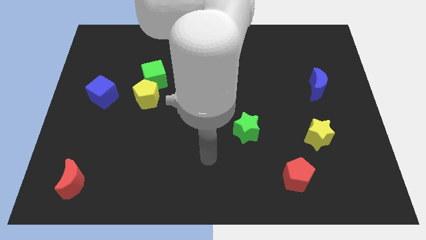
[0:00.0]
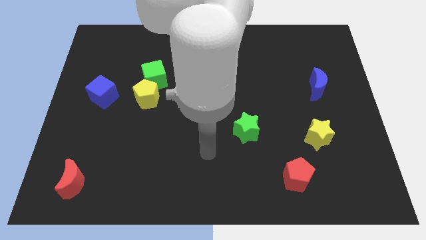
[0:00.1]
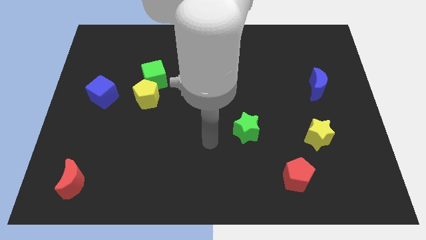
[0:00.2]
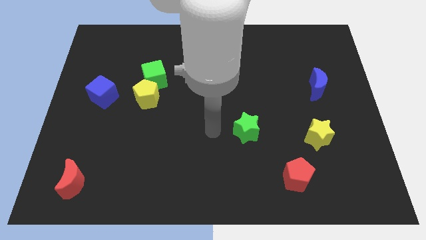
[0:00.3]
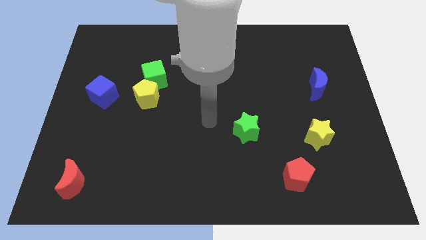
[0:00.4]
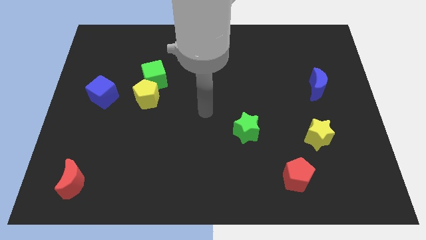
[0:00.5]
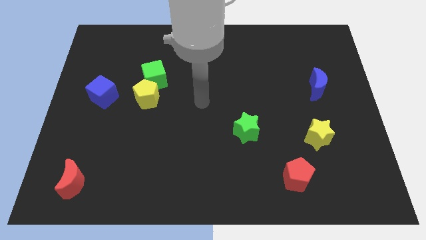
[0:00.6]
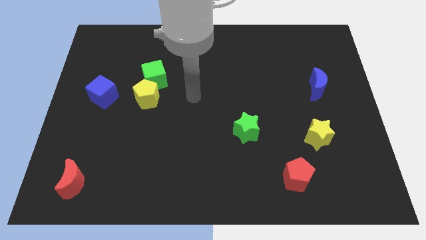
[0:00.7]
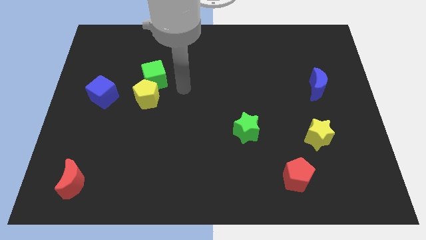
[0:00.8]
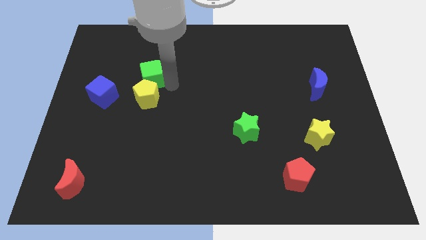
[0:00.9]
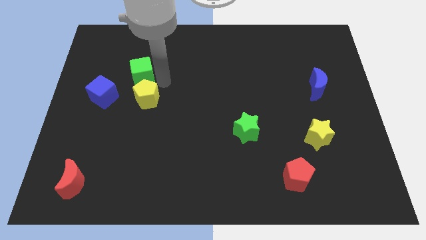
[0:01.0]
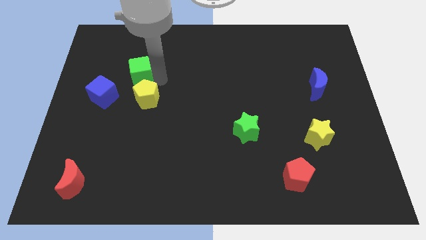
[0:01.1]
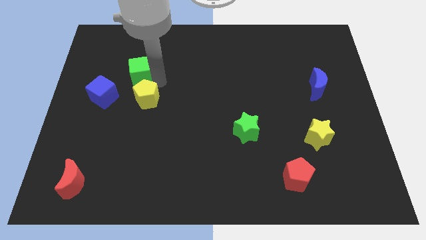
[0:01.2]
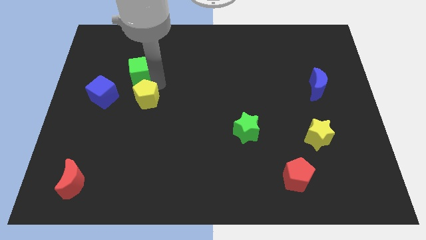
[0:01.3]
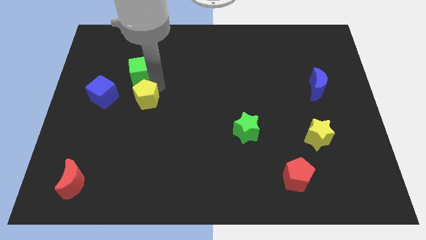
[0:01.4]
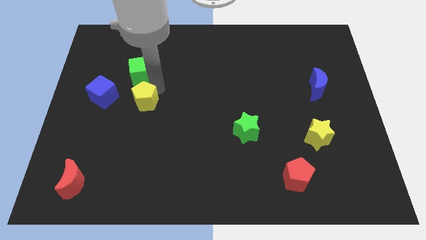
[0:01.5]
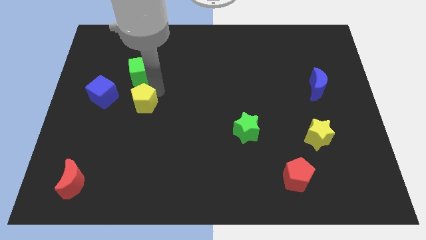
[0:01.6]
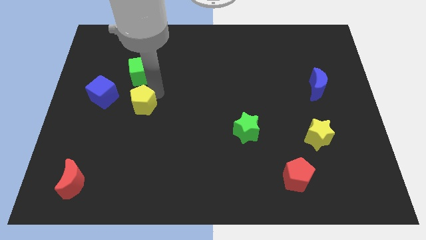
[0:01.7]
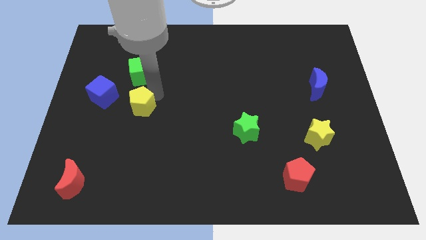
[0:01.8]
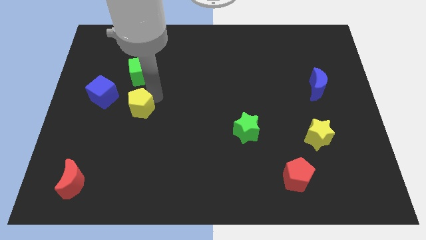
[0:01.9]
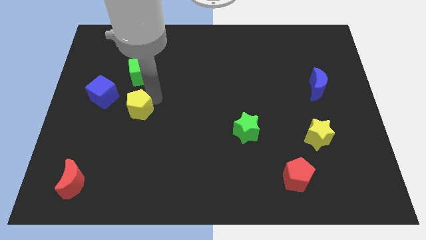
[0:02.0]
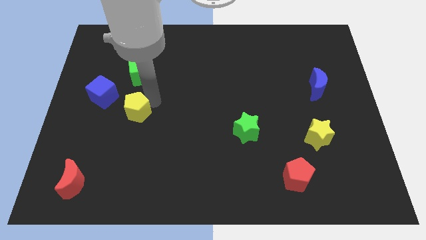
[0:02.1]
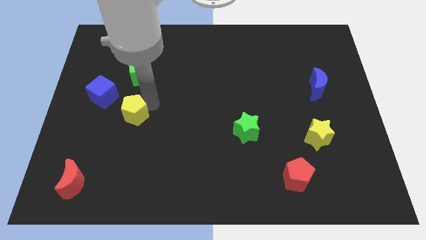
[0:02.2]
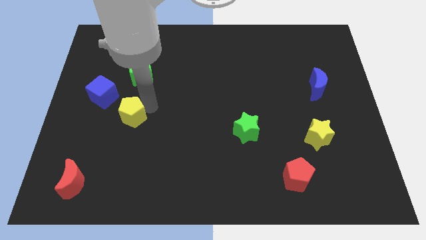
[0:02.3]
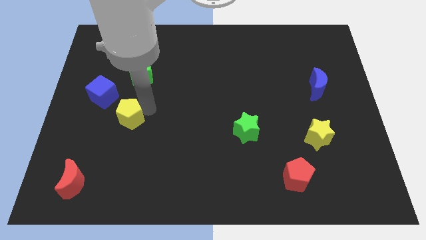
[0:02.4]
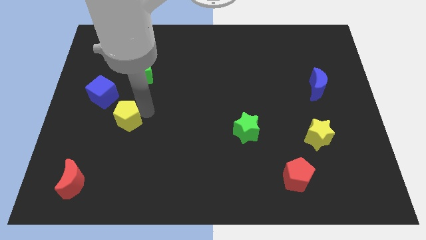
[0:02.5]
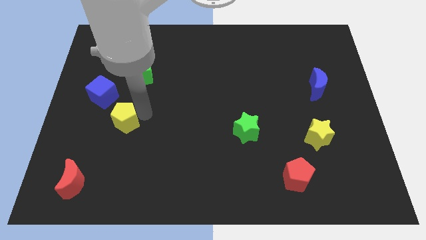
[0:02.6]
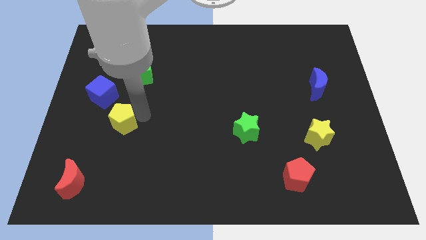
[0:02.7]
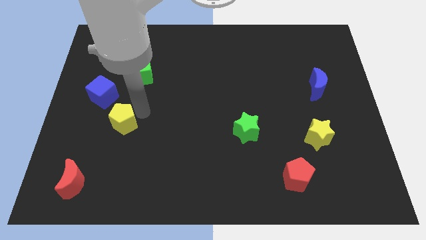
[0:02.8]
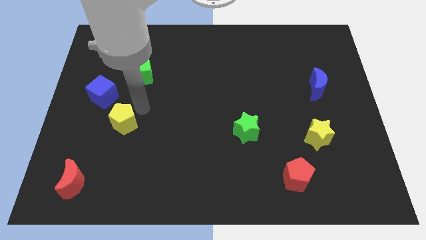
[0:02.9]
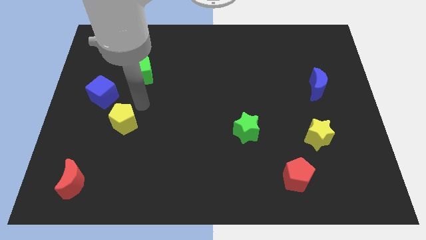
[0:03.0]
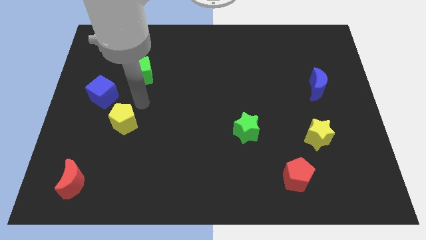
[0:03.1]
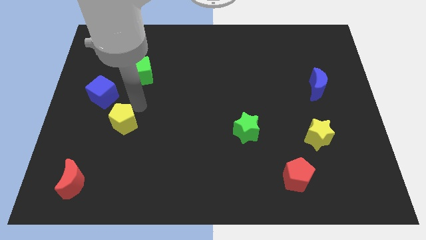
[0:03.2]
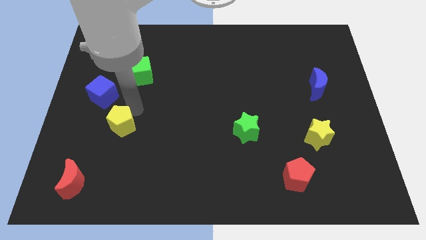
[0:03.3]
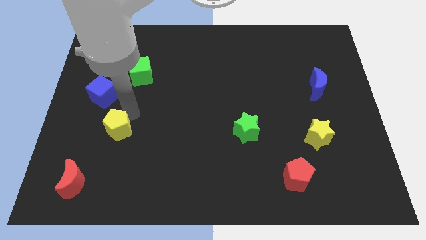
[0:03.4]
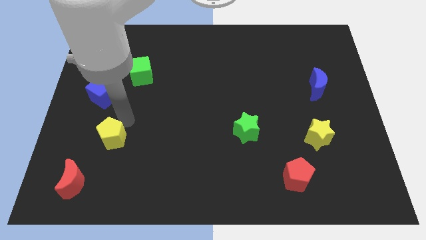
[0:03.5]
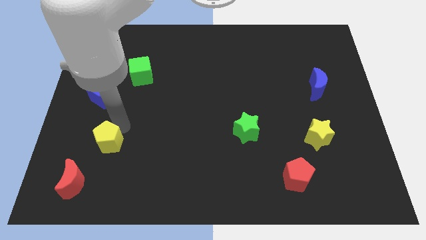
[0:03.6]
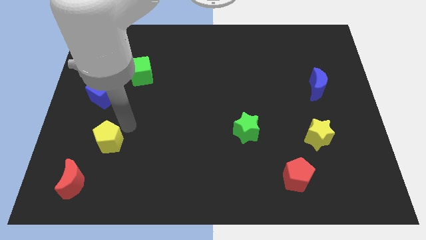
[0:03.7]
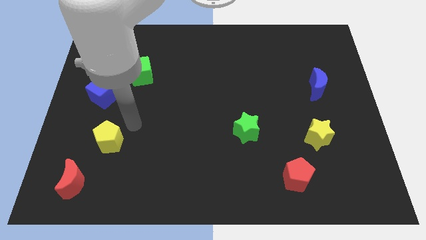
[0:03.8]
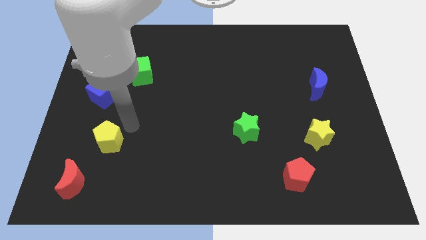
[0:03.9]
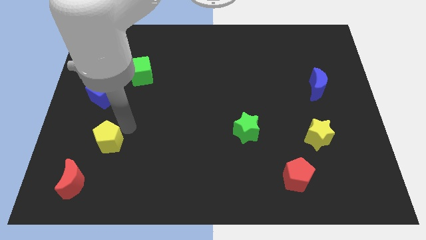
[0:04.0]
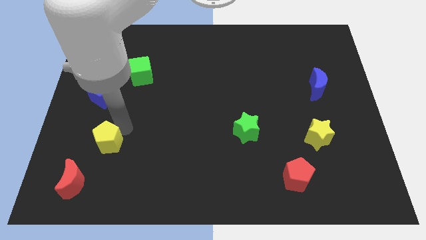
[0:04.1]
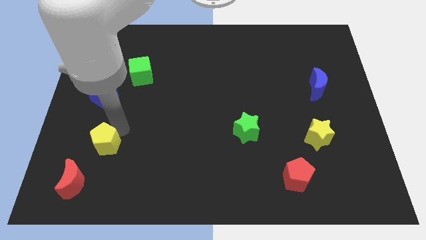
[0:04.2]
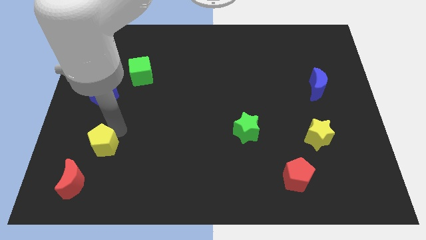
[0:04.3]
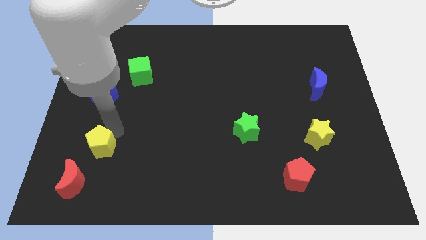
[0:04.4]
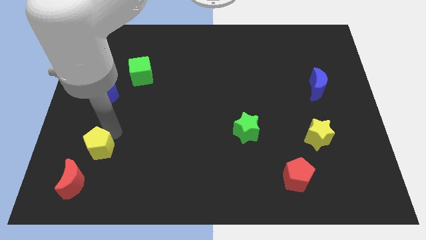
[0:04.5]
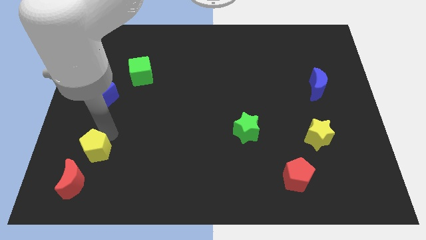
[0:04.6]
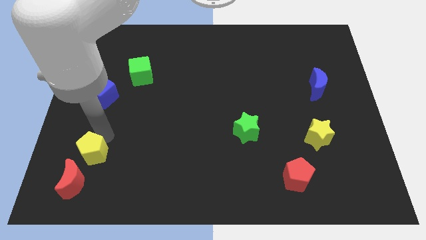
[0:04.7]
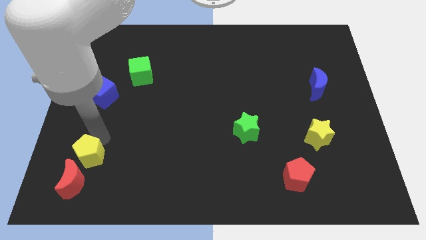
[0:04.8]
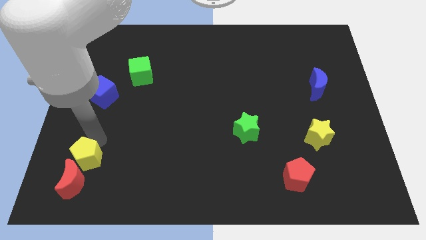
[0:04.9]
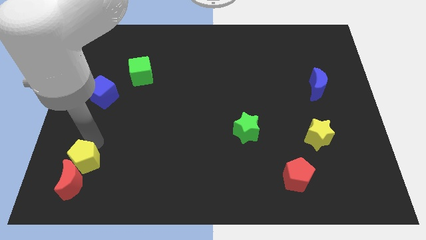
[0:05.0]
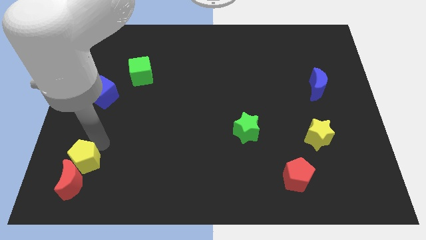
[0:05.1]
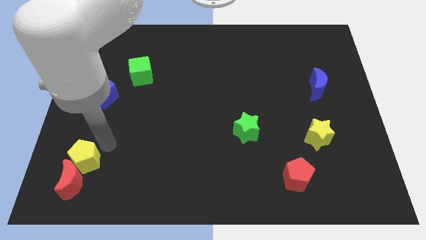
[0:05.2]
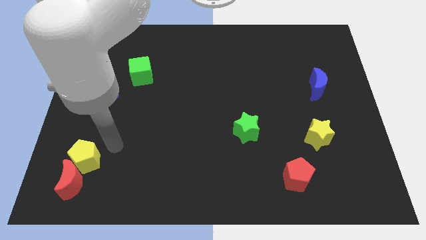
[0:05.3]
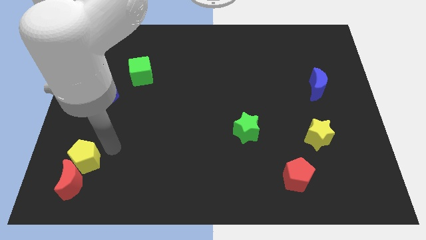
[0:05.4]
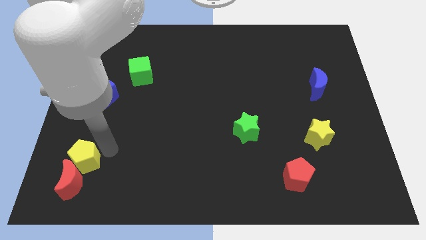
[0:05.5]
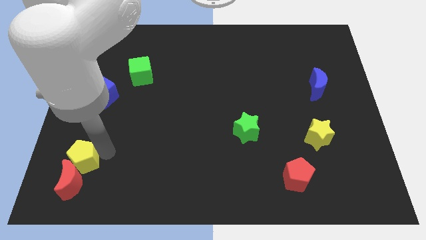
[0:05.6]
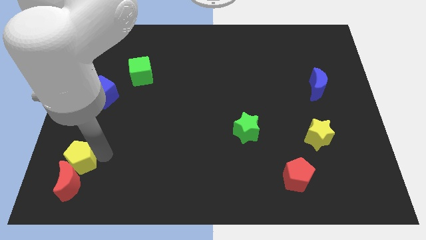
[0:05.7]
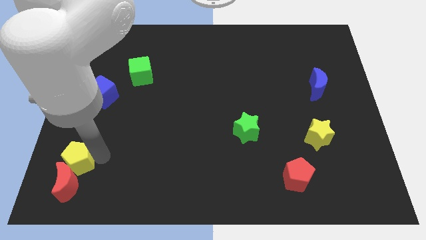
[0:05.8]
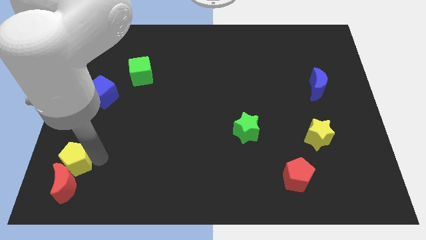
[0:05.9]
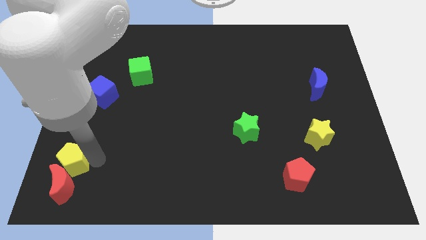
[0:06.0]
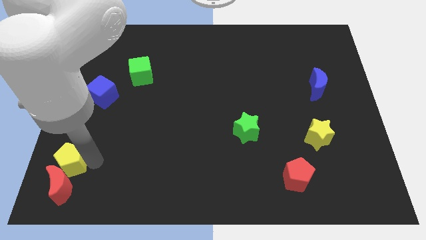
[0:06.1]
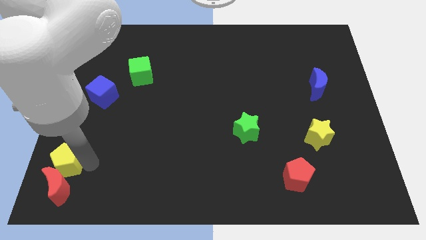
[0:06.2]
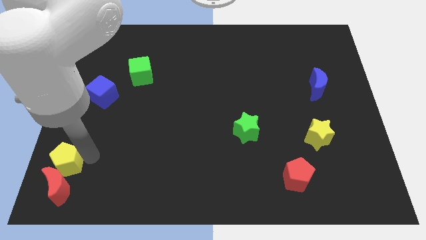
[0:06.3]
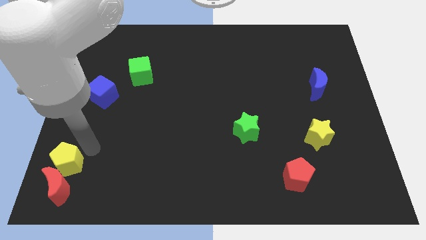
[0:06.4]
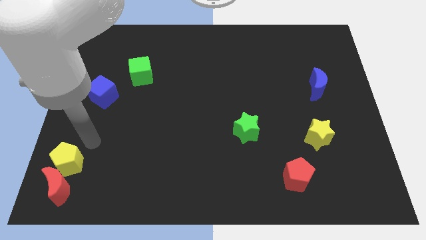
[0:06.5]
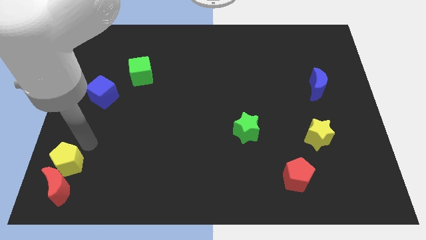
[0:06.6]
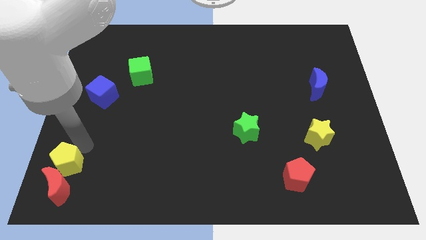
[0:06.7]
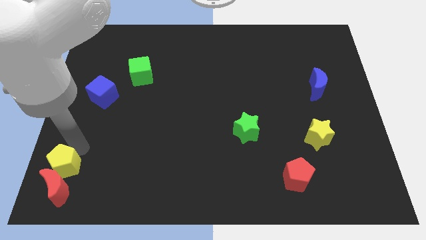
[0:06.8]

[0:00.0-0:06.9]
move the yellow pentagon to the lower left corner

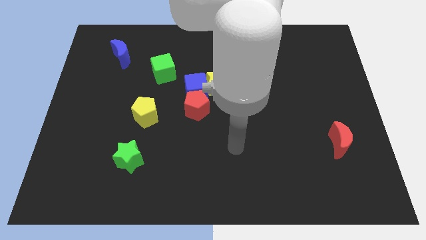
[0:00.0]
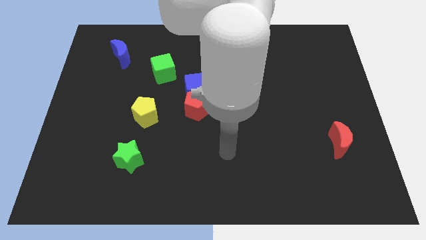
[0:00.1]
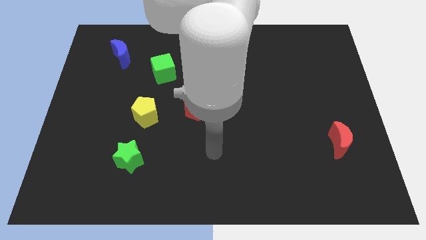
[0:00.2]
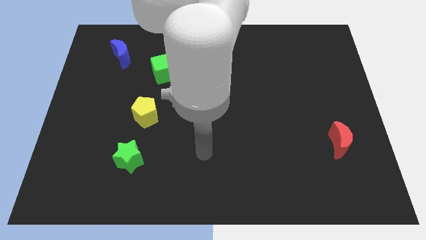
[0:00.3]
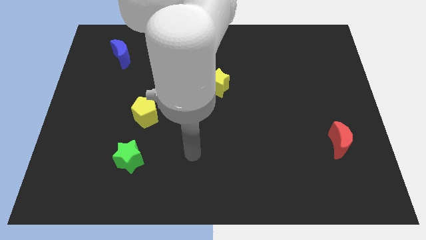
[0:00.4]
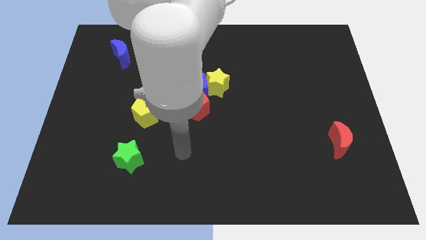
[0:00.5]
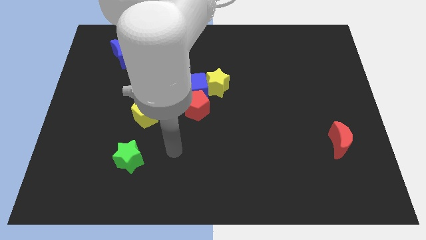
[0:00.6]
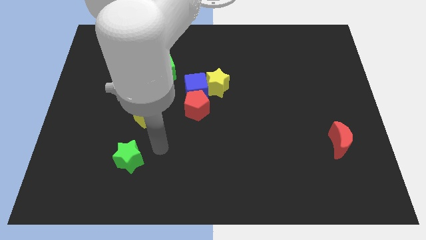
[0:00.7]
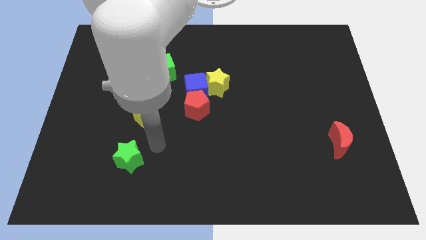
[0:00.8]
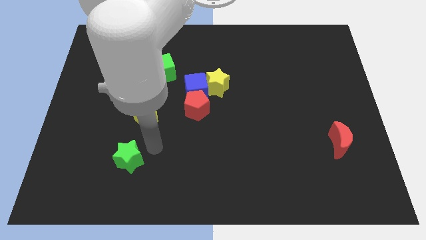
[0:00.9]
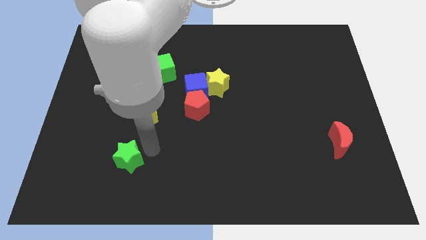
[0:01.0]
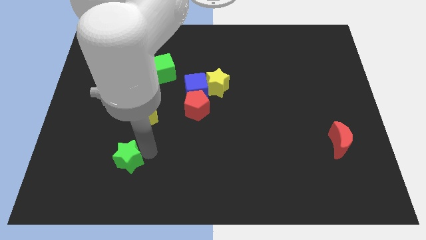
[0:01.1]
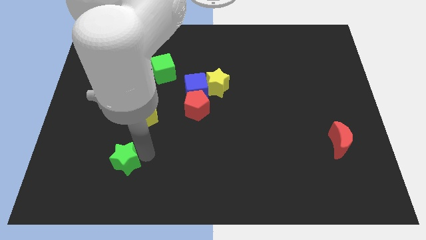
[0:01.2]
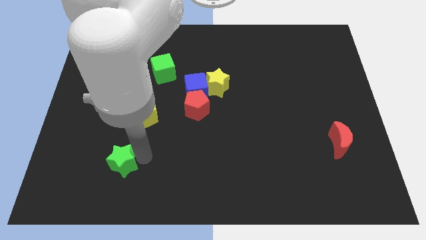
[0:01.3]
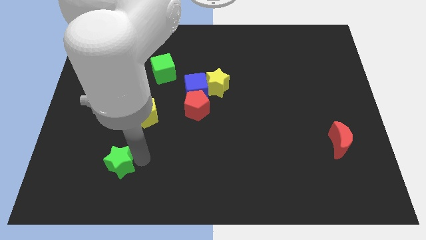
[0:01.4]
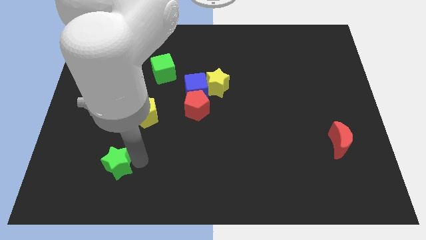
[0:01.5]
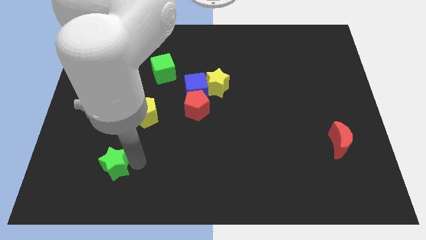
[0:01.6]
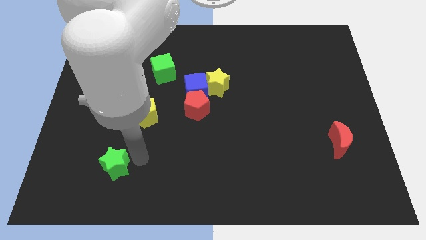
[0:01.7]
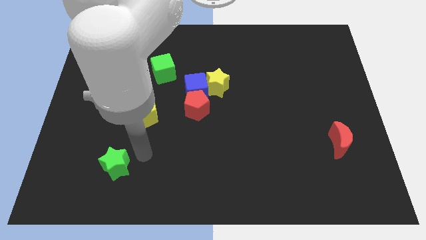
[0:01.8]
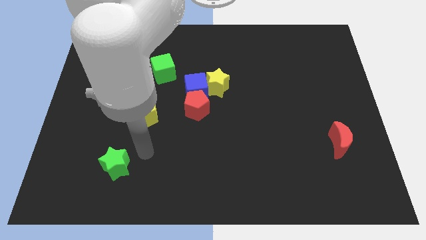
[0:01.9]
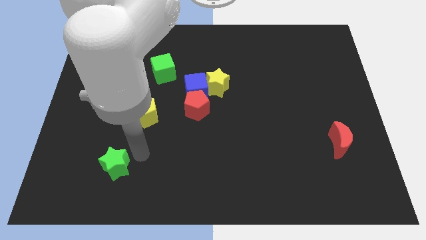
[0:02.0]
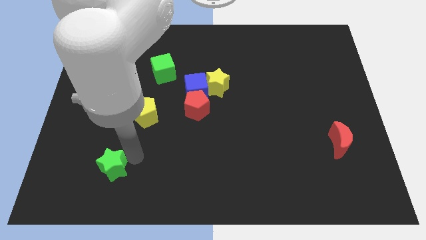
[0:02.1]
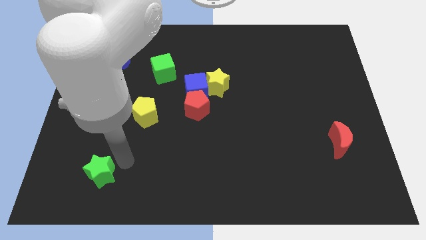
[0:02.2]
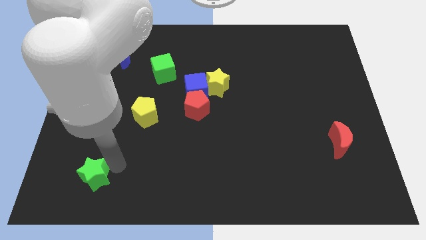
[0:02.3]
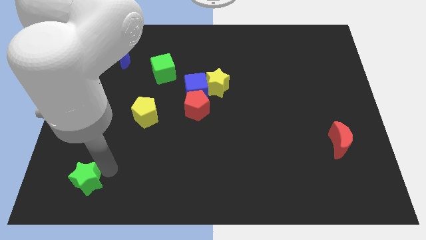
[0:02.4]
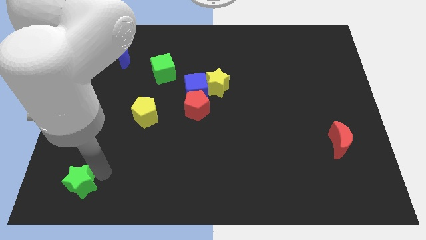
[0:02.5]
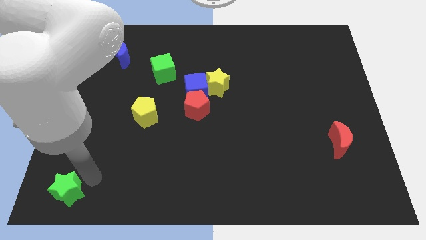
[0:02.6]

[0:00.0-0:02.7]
move the green star to the bottom left
